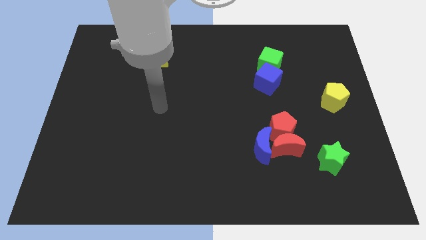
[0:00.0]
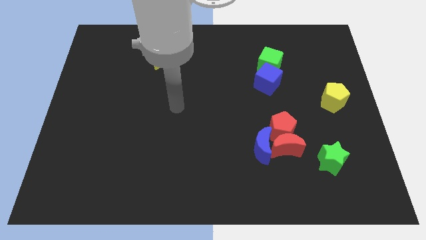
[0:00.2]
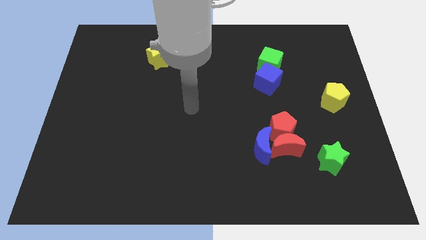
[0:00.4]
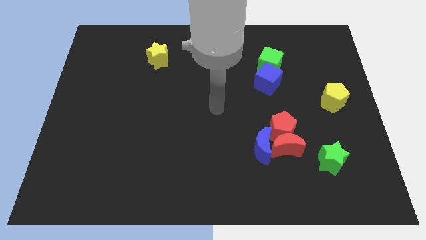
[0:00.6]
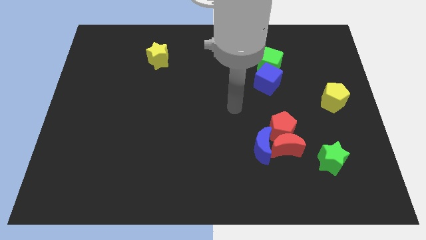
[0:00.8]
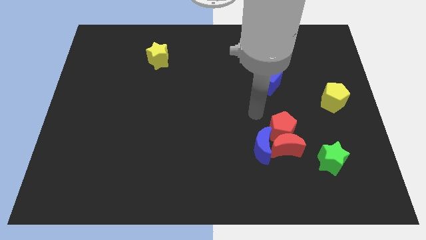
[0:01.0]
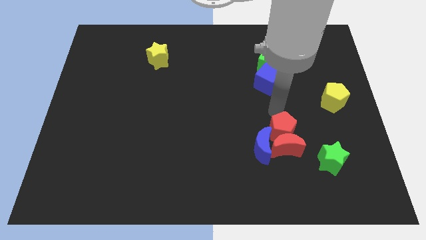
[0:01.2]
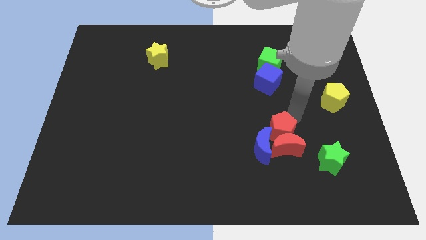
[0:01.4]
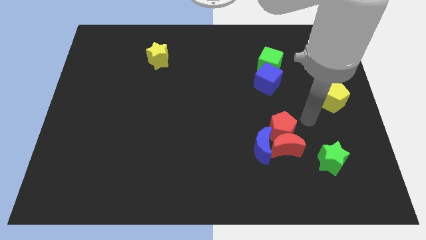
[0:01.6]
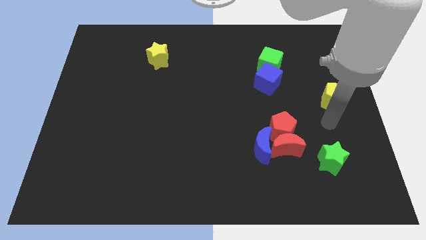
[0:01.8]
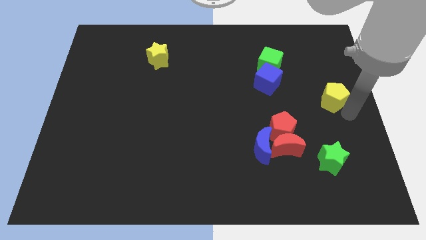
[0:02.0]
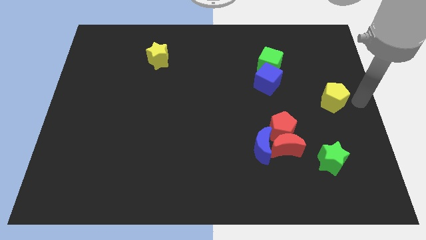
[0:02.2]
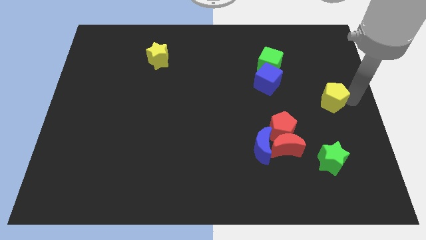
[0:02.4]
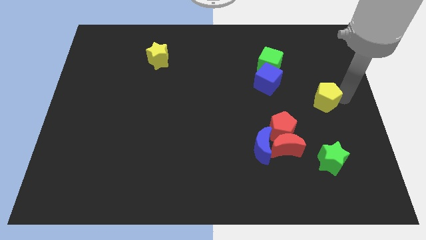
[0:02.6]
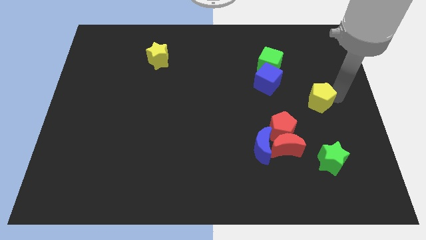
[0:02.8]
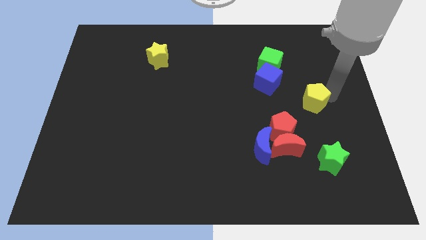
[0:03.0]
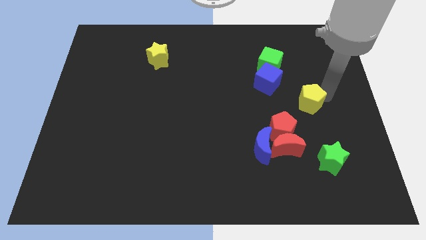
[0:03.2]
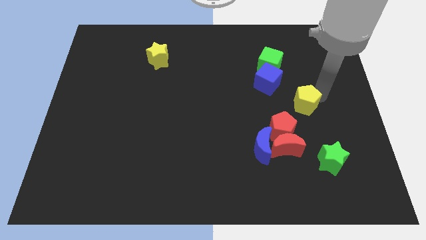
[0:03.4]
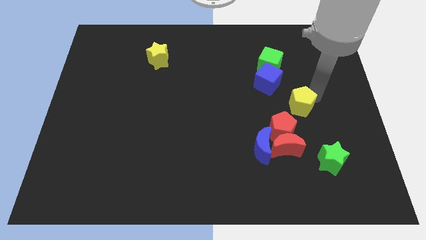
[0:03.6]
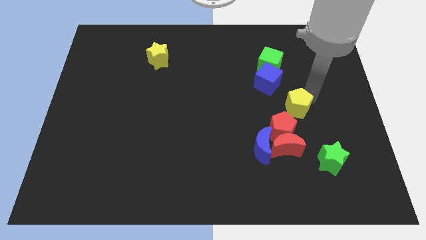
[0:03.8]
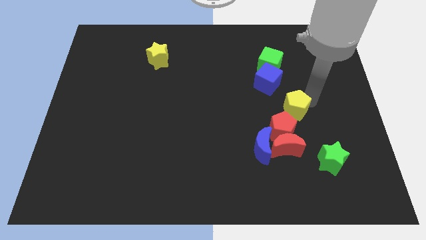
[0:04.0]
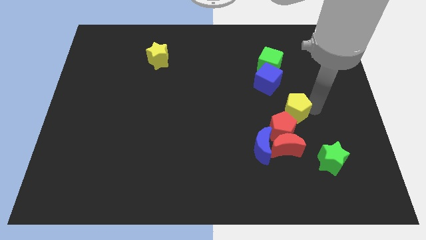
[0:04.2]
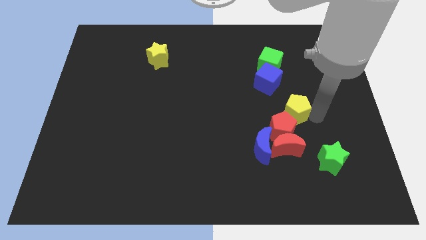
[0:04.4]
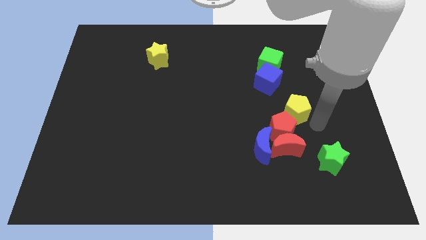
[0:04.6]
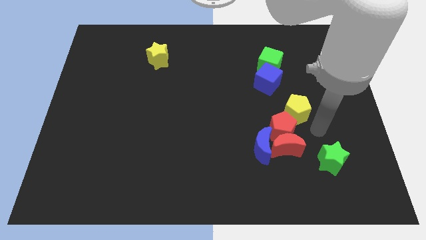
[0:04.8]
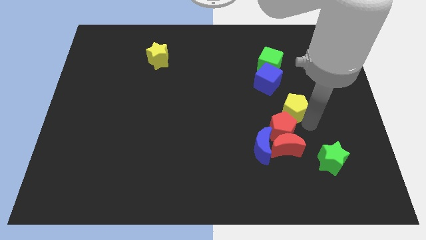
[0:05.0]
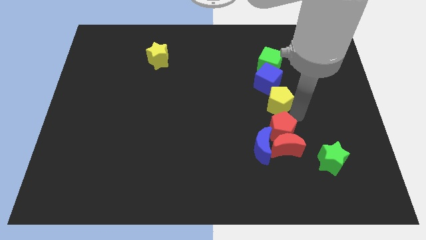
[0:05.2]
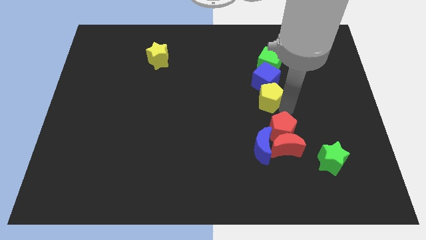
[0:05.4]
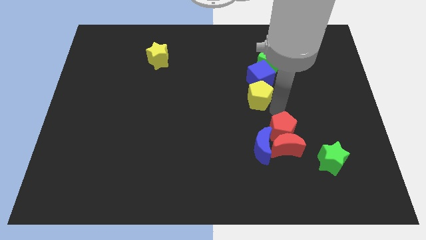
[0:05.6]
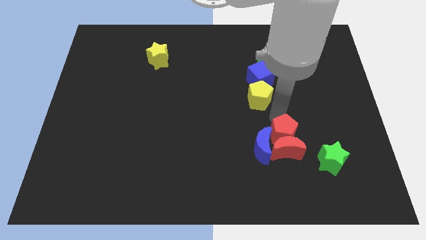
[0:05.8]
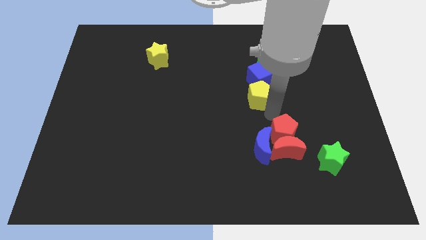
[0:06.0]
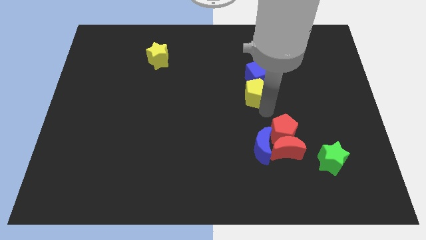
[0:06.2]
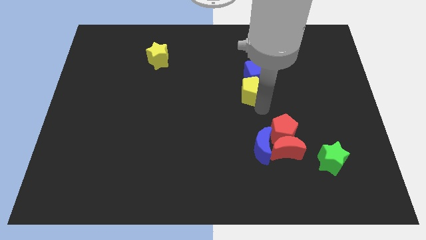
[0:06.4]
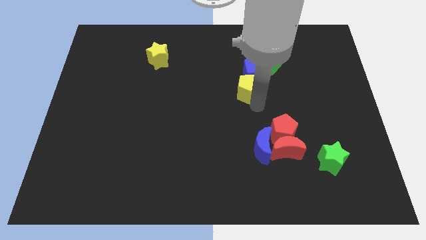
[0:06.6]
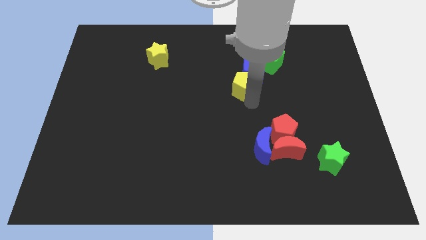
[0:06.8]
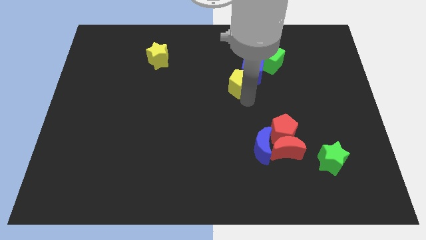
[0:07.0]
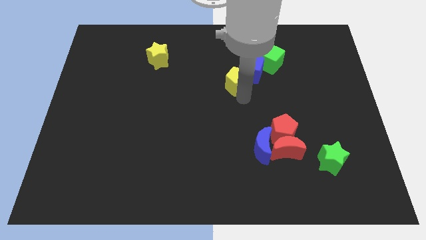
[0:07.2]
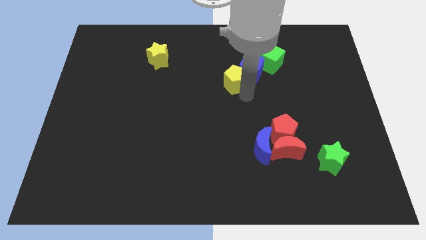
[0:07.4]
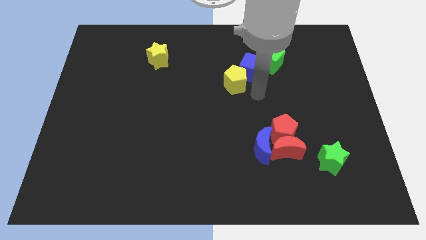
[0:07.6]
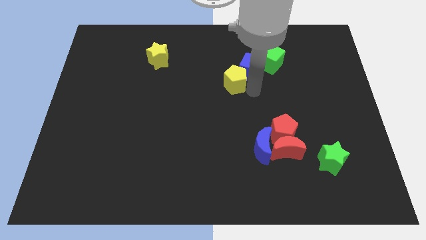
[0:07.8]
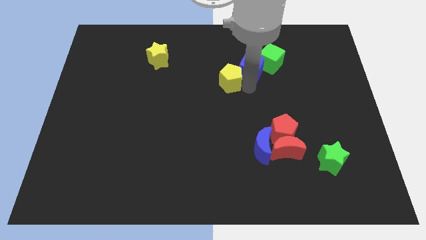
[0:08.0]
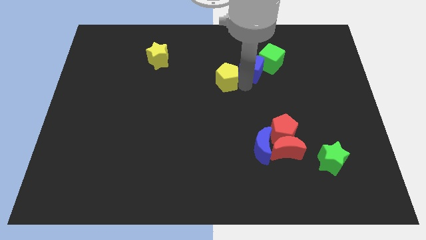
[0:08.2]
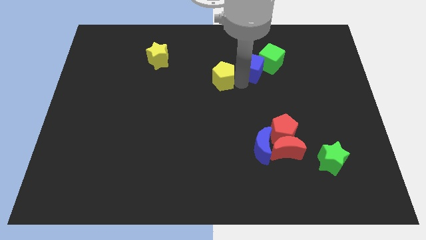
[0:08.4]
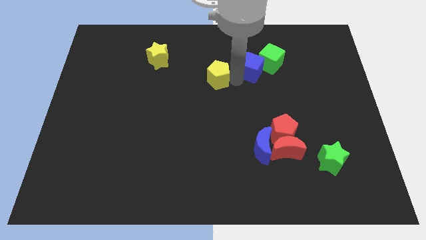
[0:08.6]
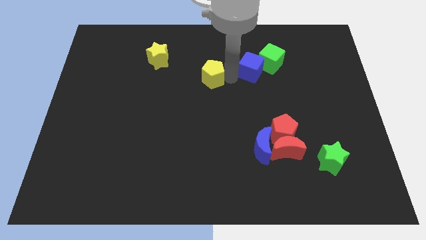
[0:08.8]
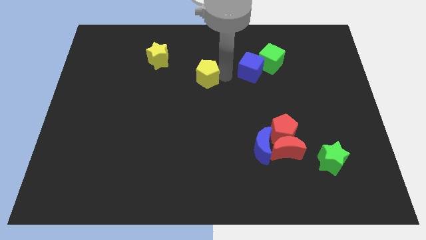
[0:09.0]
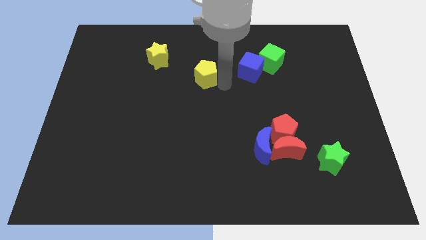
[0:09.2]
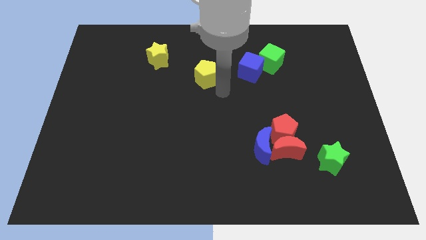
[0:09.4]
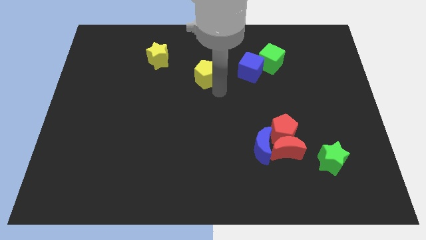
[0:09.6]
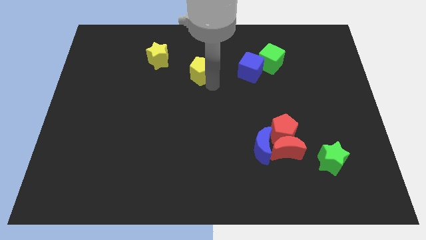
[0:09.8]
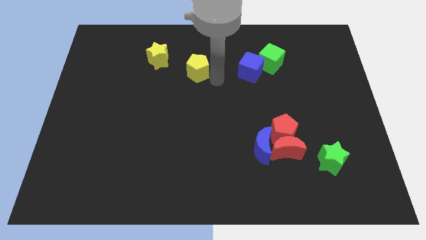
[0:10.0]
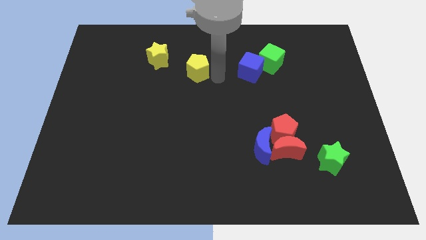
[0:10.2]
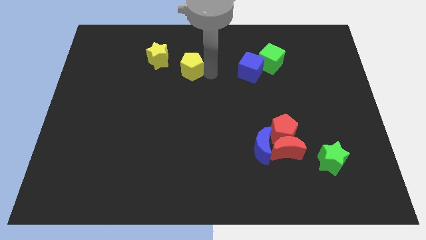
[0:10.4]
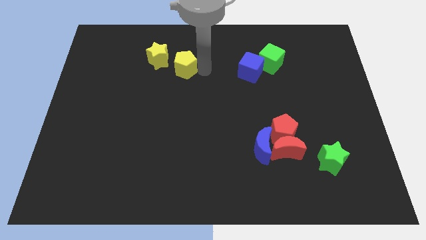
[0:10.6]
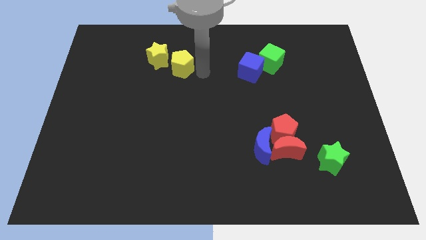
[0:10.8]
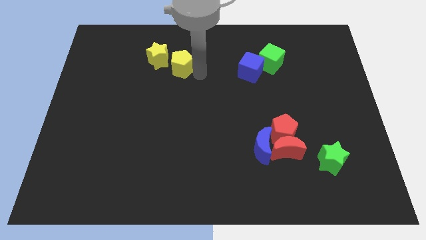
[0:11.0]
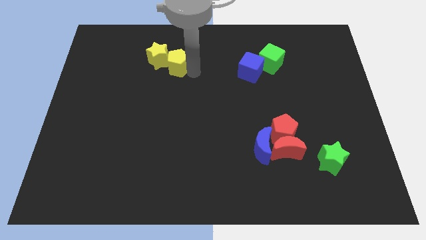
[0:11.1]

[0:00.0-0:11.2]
slide the yellow pentagon next to the yellow star

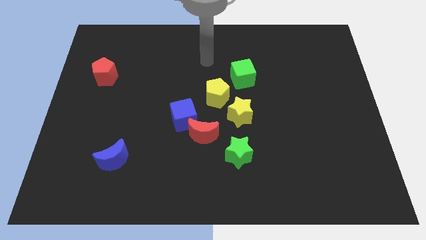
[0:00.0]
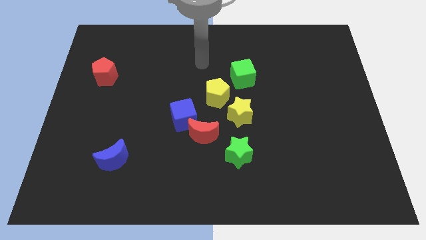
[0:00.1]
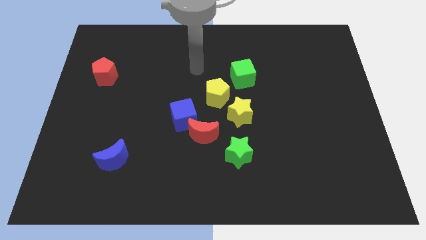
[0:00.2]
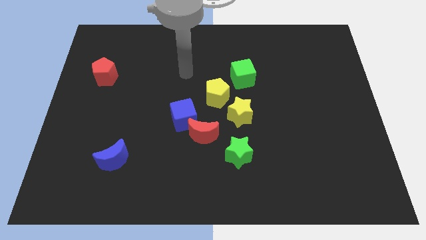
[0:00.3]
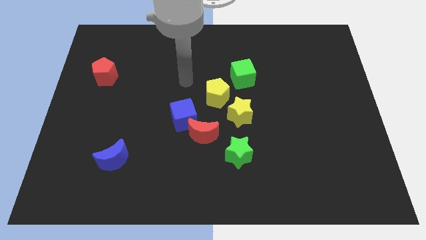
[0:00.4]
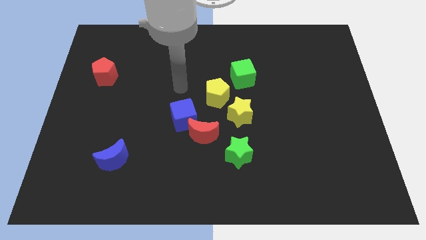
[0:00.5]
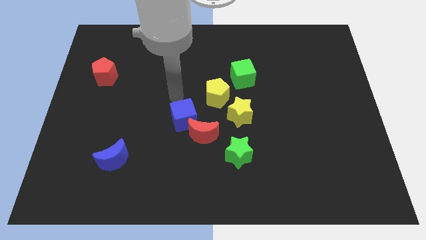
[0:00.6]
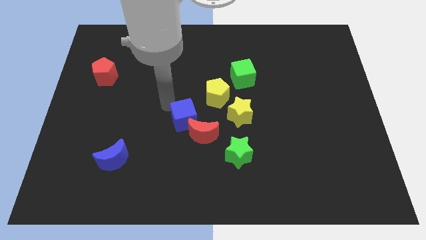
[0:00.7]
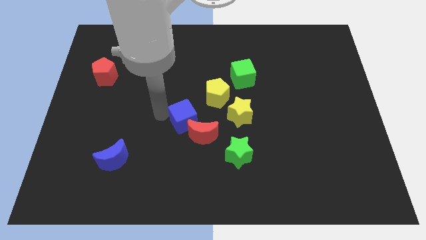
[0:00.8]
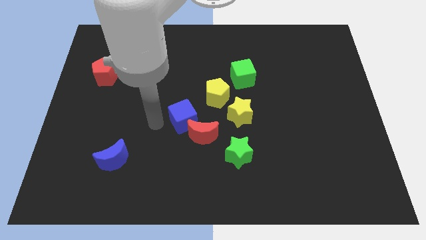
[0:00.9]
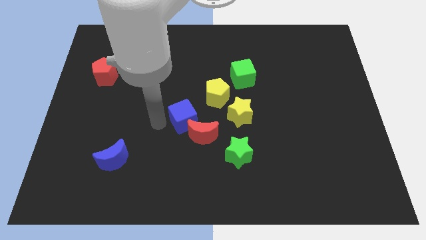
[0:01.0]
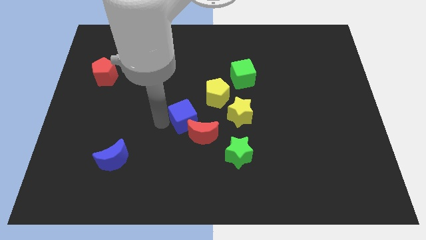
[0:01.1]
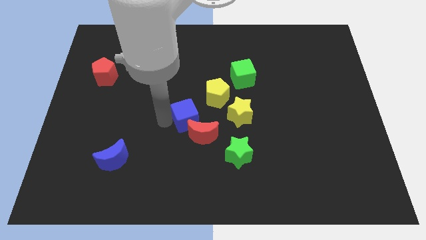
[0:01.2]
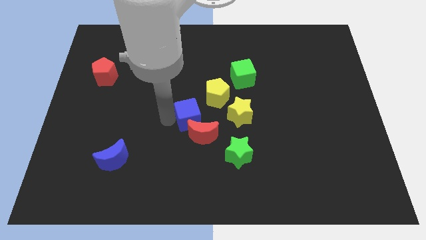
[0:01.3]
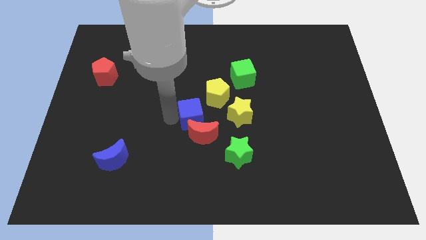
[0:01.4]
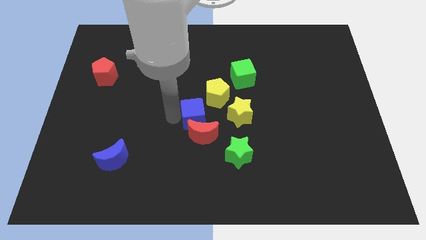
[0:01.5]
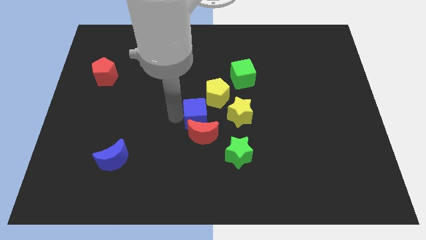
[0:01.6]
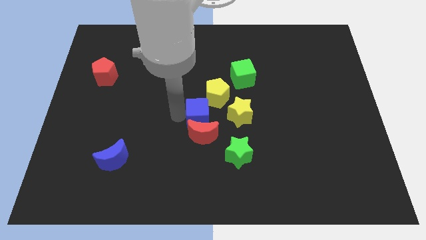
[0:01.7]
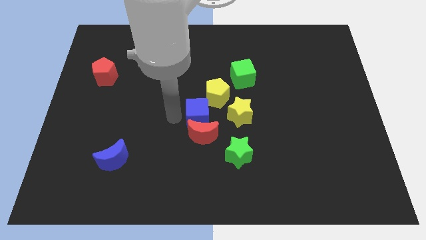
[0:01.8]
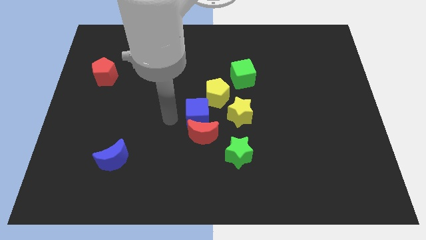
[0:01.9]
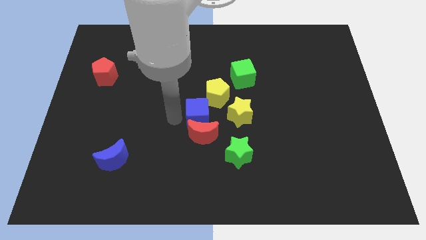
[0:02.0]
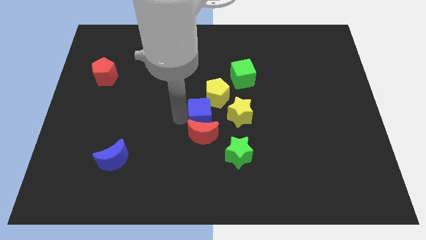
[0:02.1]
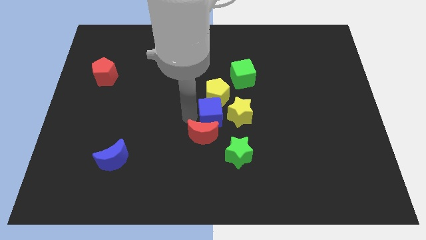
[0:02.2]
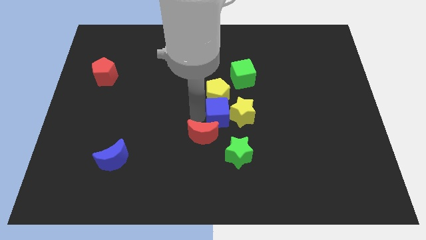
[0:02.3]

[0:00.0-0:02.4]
put the blue cube to the yellow star
